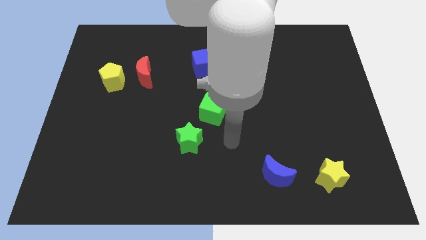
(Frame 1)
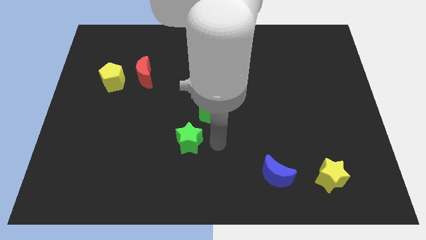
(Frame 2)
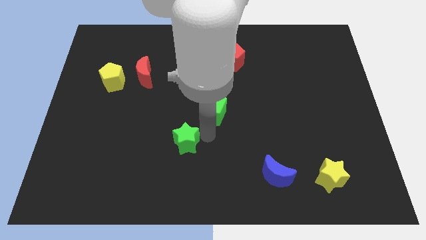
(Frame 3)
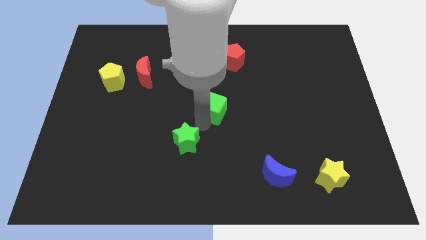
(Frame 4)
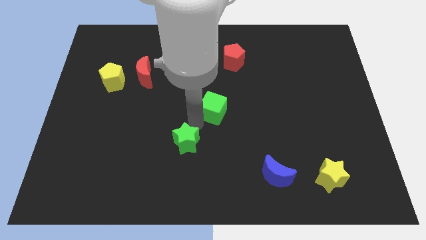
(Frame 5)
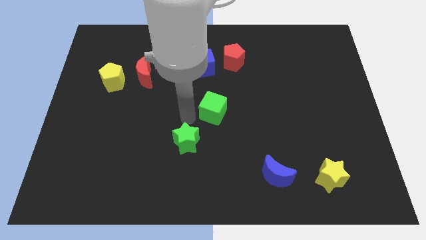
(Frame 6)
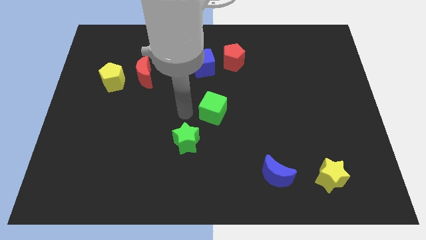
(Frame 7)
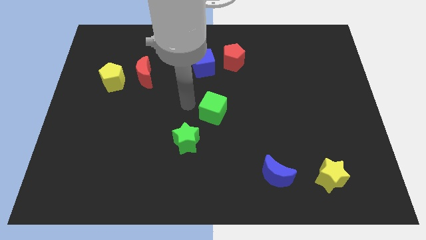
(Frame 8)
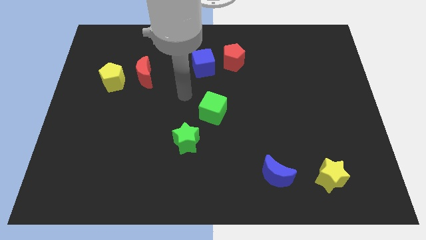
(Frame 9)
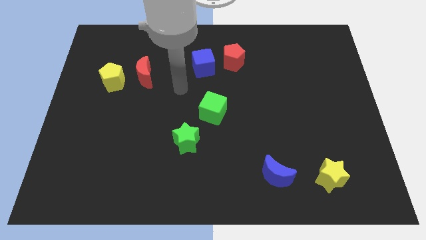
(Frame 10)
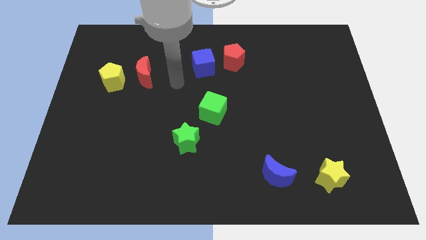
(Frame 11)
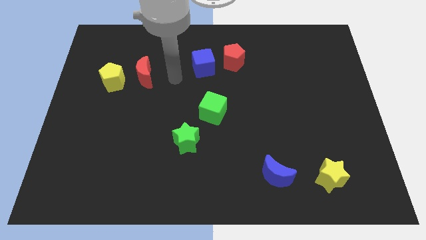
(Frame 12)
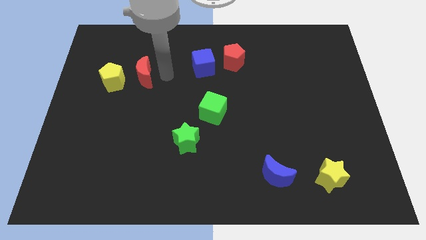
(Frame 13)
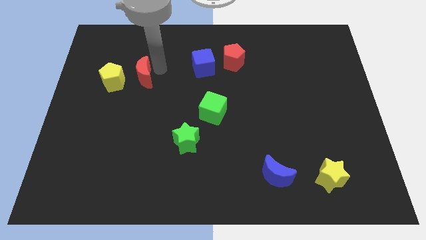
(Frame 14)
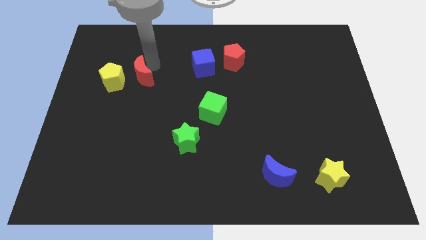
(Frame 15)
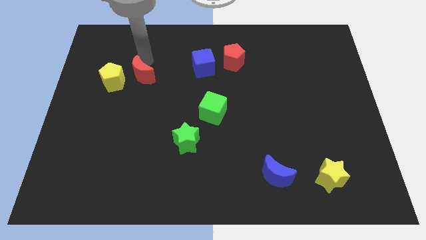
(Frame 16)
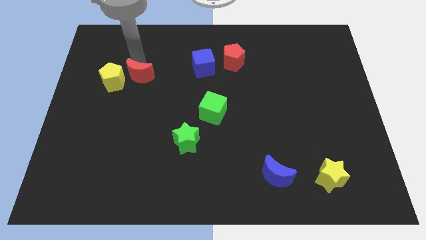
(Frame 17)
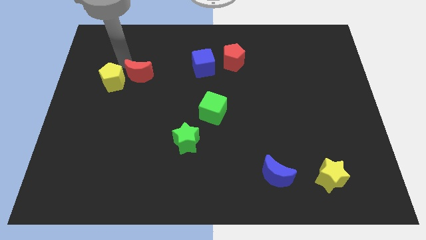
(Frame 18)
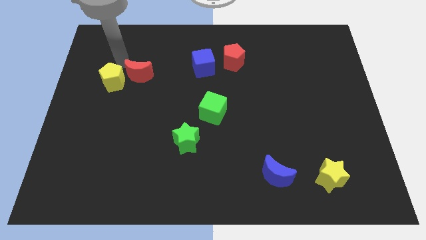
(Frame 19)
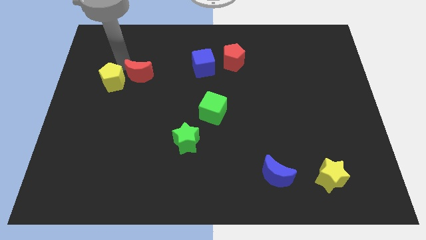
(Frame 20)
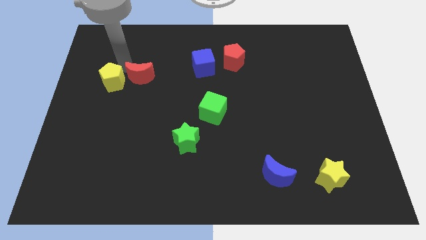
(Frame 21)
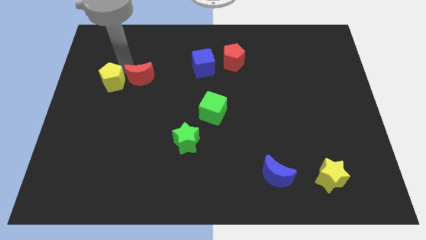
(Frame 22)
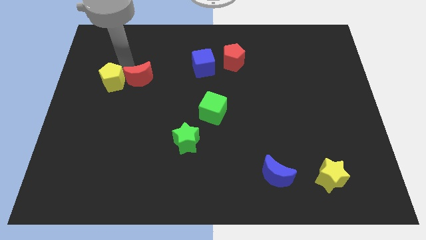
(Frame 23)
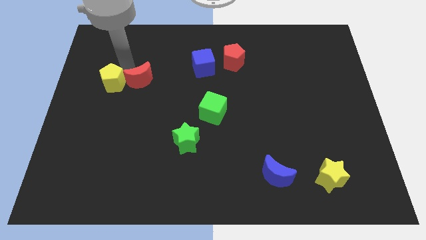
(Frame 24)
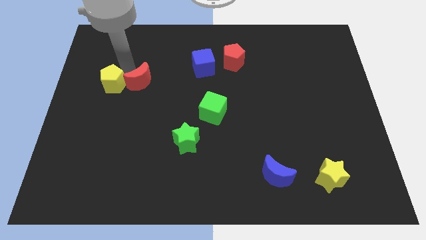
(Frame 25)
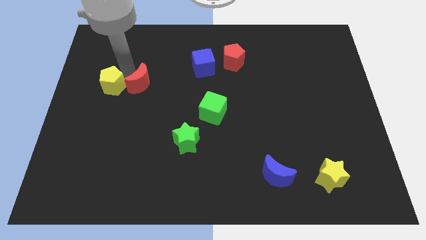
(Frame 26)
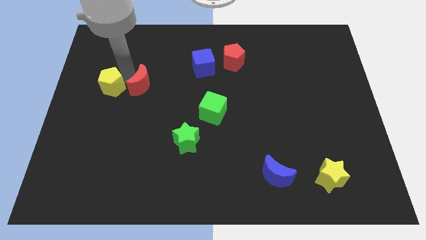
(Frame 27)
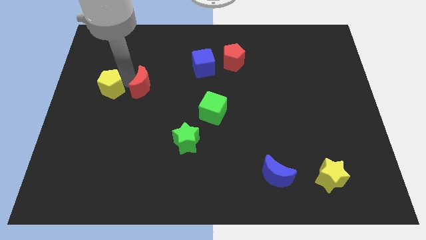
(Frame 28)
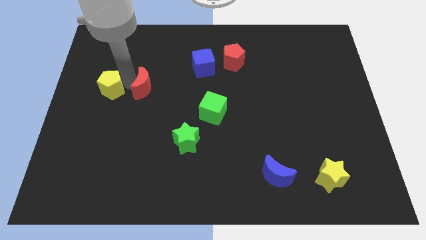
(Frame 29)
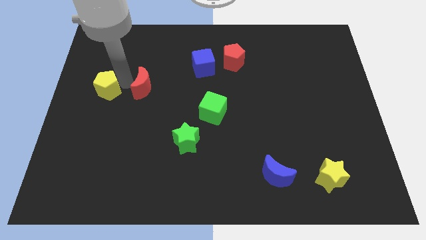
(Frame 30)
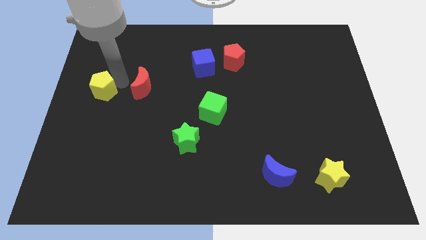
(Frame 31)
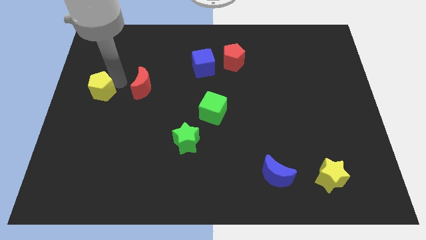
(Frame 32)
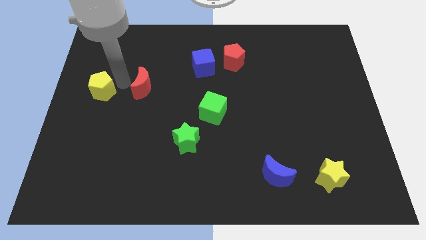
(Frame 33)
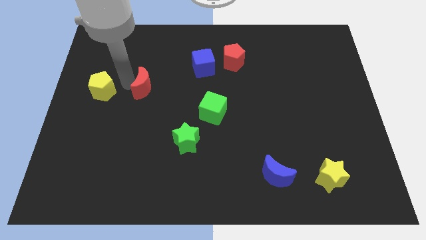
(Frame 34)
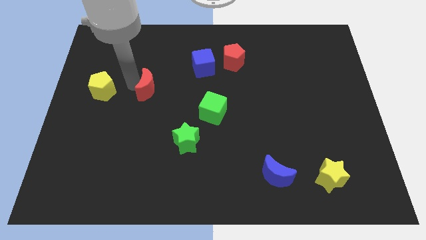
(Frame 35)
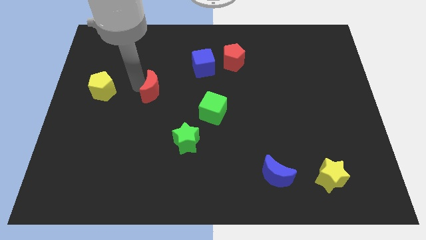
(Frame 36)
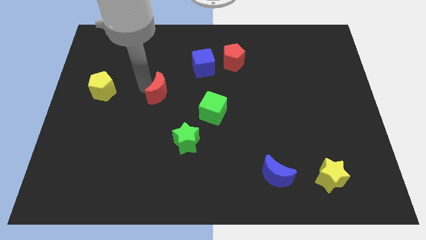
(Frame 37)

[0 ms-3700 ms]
slightly slide the red moon downwards and right

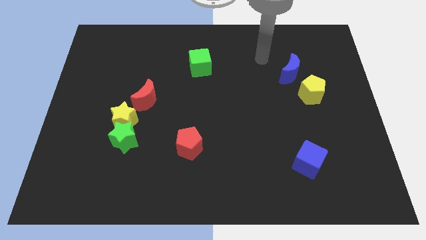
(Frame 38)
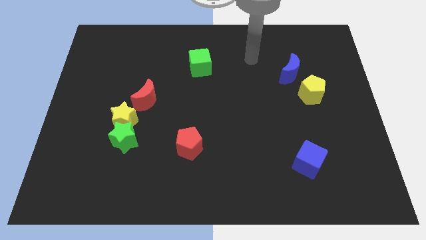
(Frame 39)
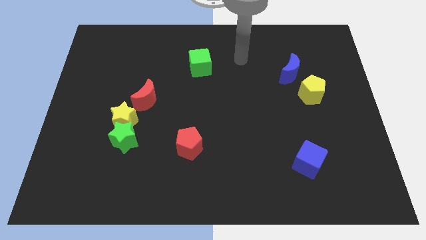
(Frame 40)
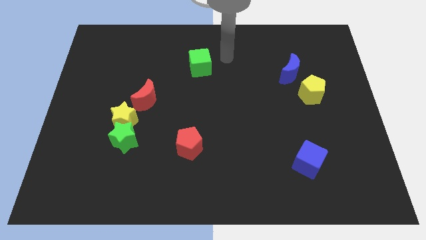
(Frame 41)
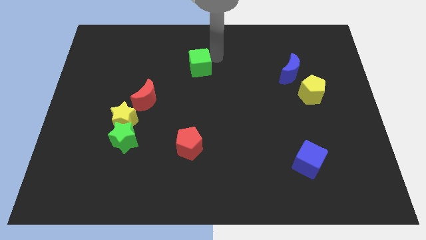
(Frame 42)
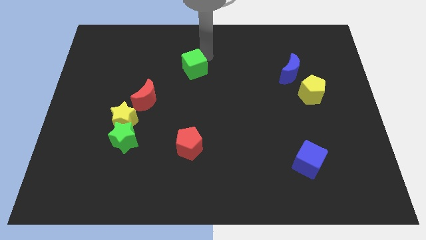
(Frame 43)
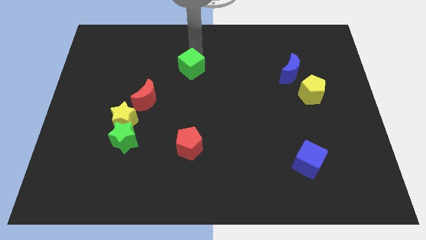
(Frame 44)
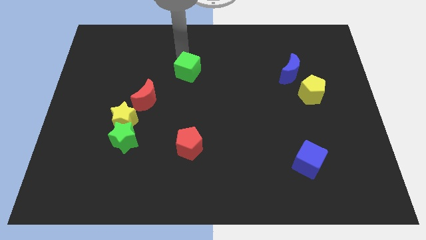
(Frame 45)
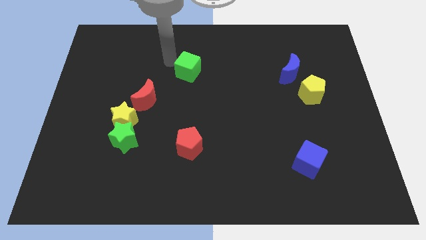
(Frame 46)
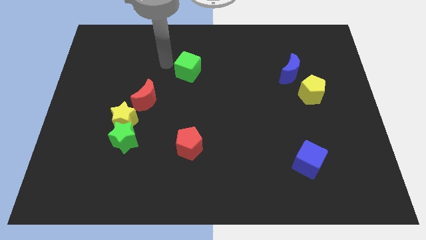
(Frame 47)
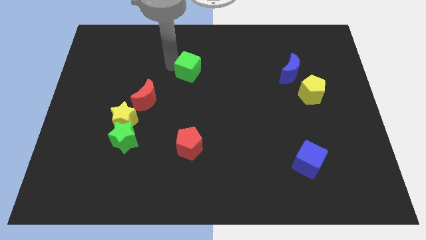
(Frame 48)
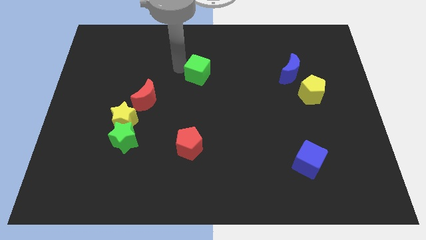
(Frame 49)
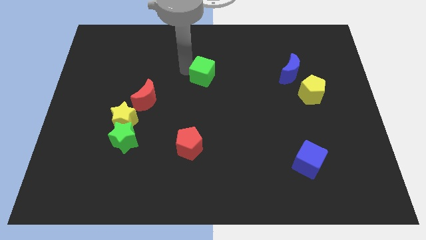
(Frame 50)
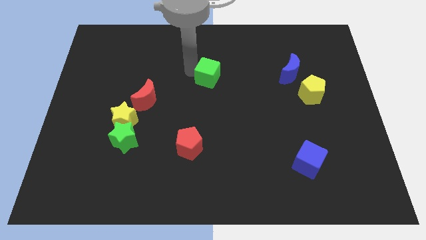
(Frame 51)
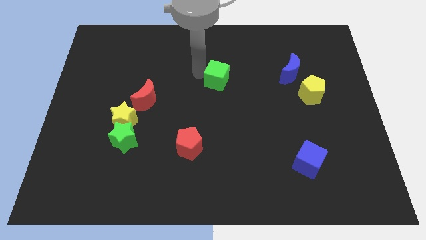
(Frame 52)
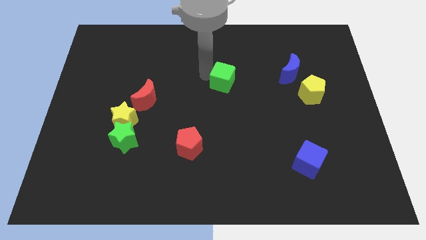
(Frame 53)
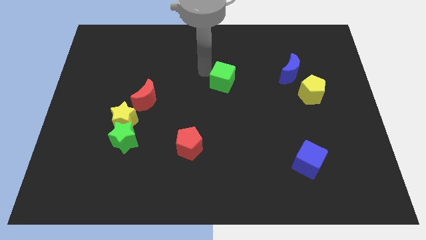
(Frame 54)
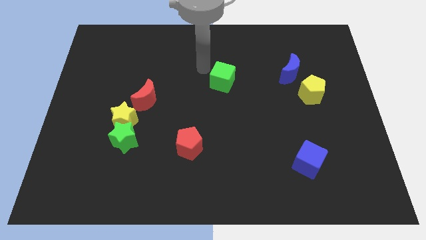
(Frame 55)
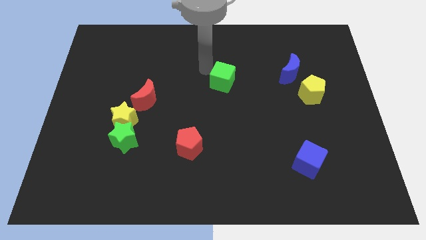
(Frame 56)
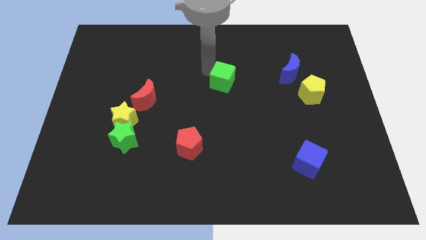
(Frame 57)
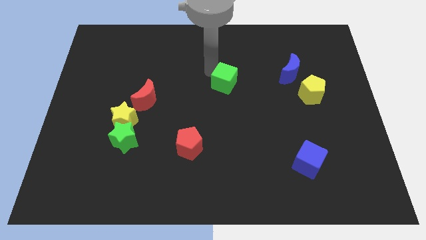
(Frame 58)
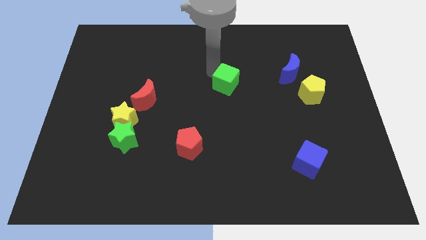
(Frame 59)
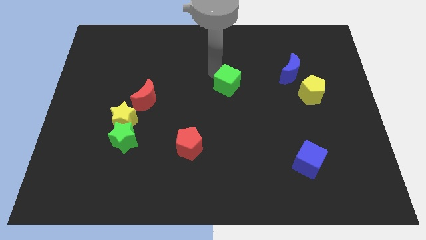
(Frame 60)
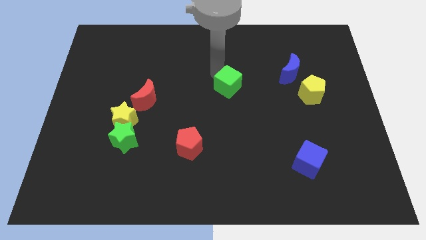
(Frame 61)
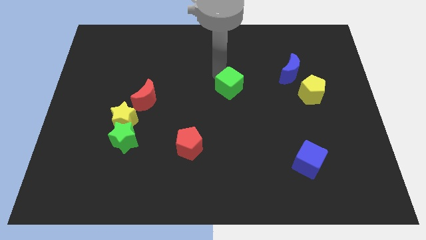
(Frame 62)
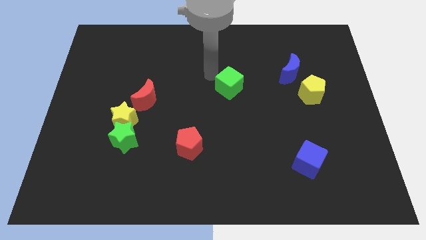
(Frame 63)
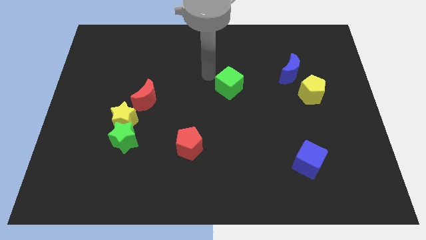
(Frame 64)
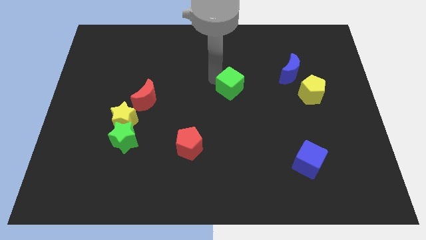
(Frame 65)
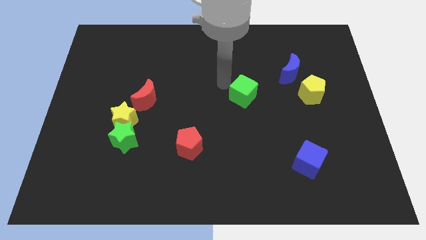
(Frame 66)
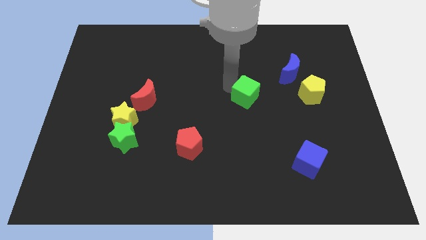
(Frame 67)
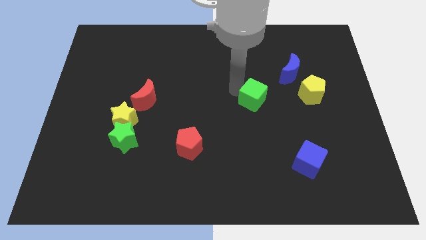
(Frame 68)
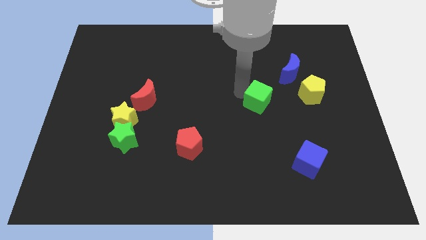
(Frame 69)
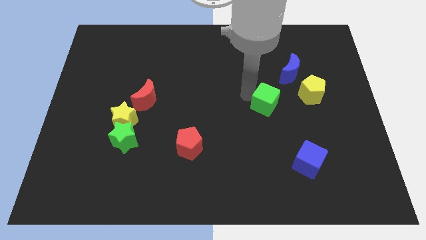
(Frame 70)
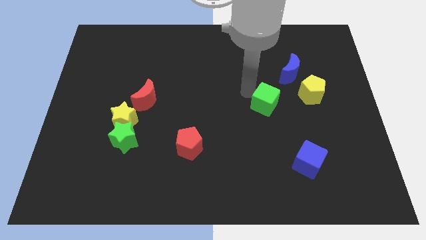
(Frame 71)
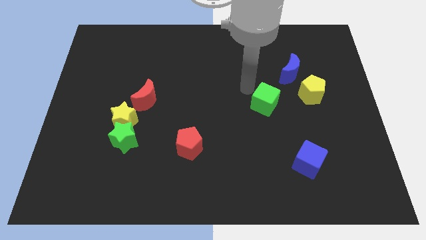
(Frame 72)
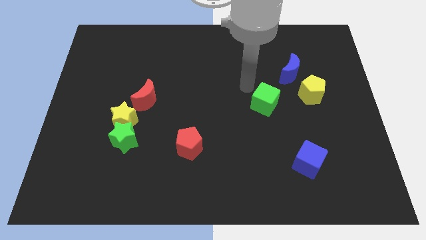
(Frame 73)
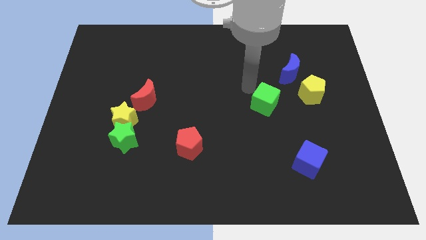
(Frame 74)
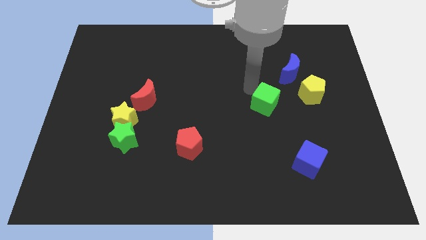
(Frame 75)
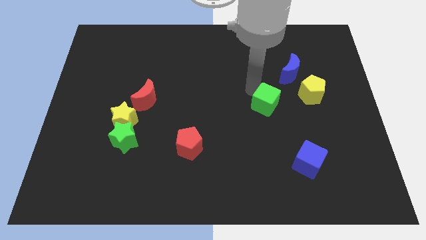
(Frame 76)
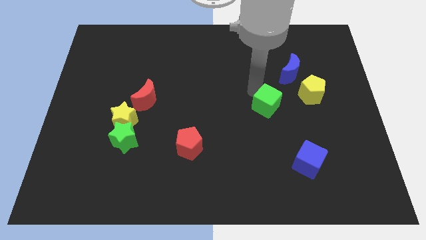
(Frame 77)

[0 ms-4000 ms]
slide the green cube downwards and right diagonally

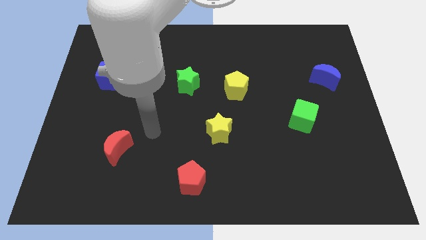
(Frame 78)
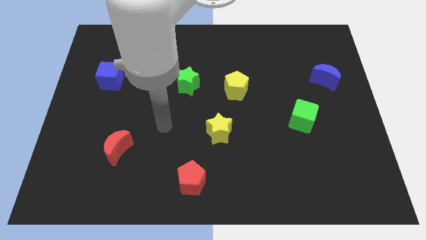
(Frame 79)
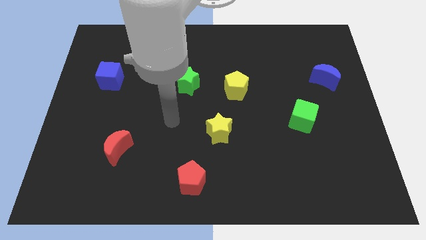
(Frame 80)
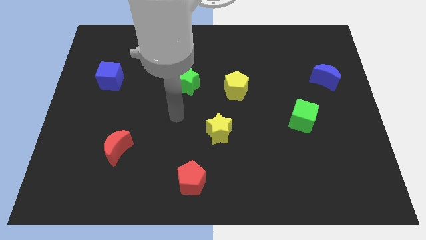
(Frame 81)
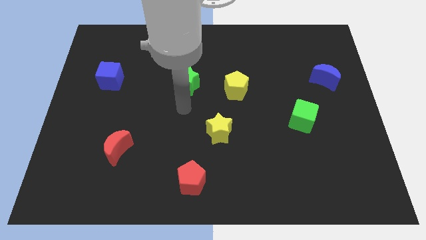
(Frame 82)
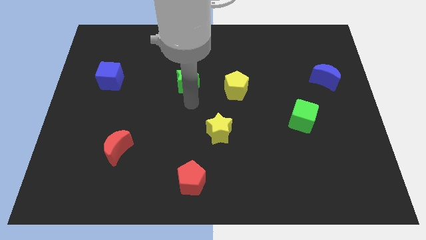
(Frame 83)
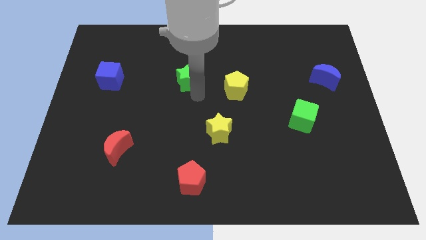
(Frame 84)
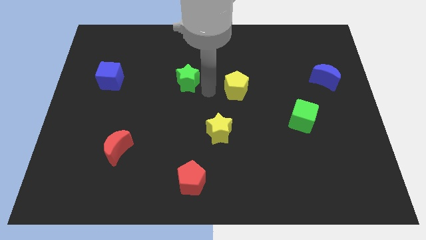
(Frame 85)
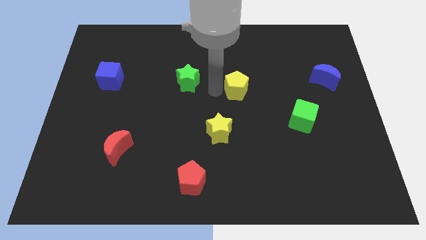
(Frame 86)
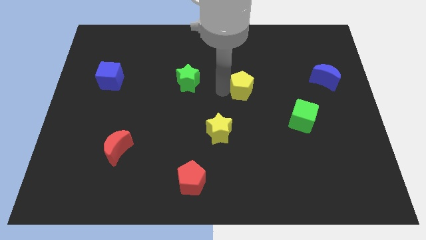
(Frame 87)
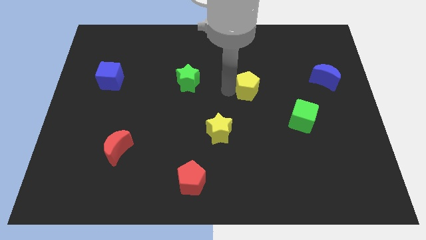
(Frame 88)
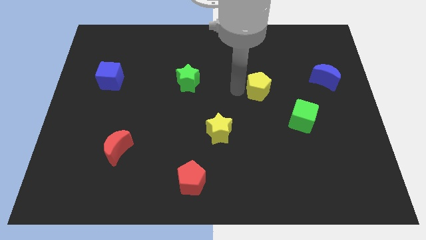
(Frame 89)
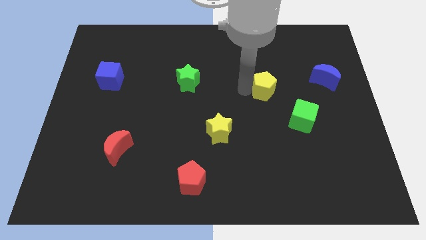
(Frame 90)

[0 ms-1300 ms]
push the yellow pentagon slightly right
